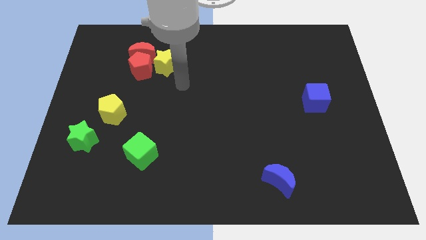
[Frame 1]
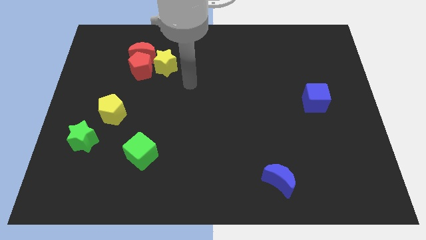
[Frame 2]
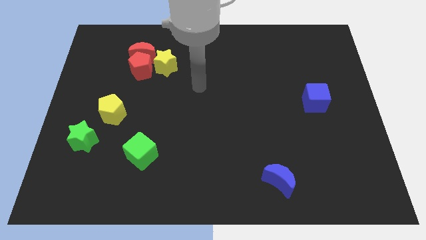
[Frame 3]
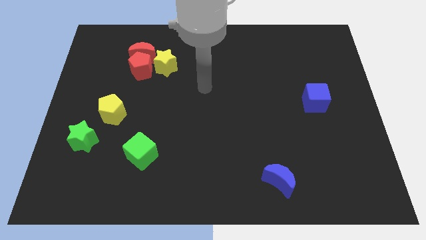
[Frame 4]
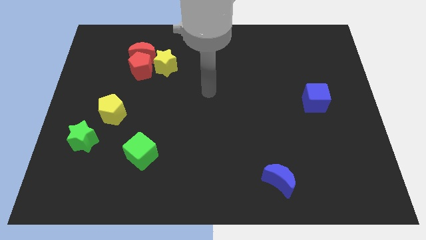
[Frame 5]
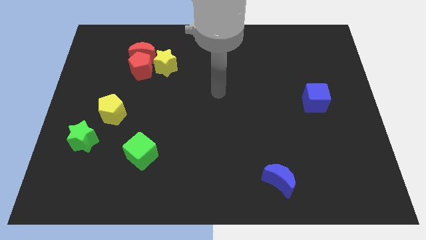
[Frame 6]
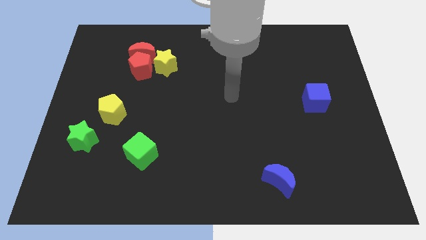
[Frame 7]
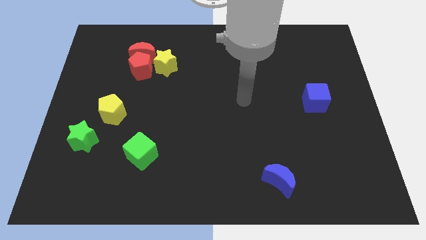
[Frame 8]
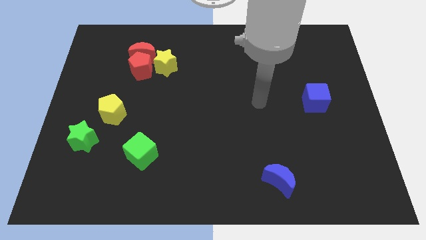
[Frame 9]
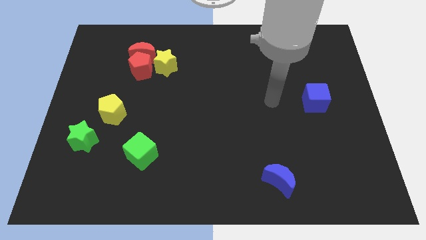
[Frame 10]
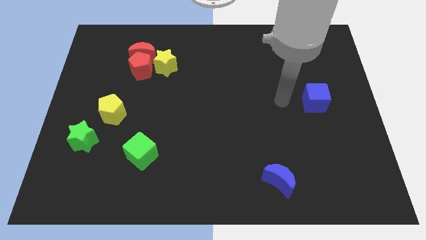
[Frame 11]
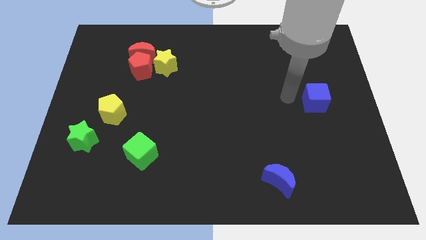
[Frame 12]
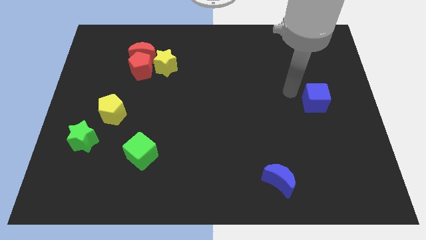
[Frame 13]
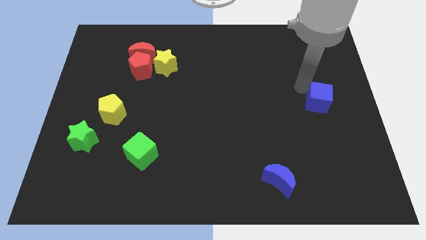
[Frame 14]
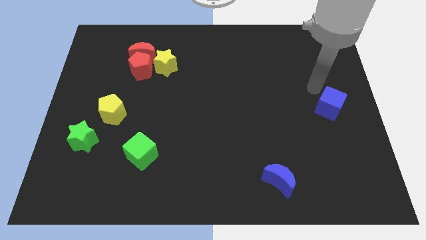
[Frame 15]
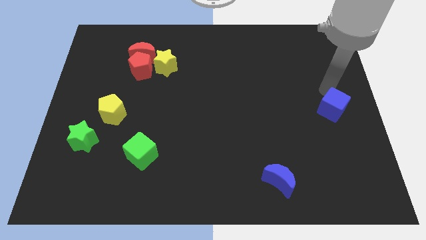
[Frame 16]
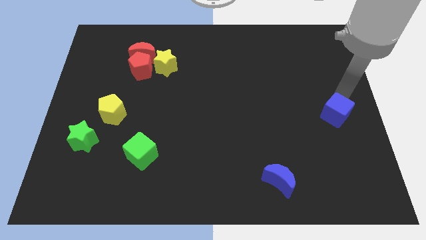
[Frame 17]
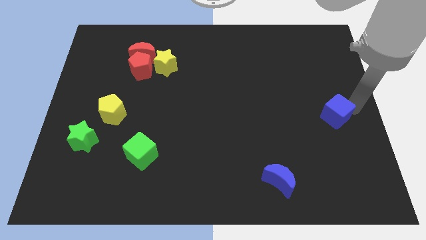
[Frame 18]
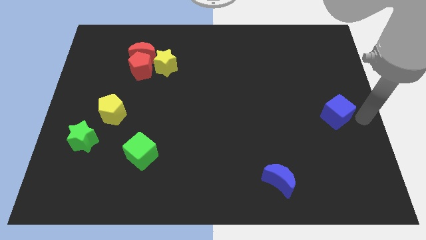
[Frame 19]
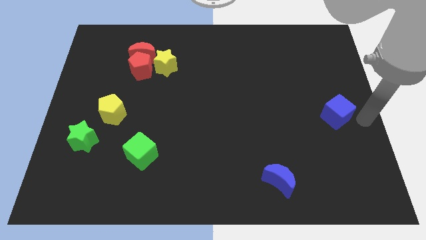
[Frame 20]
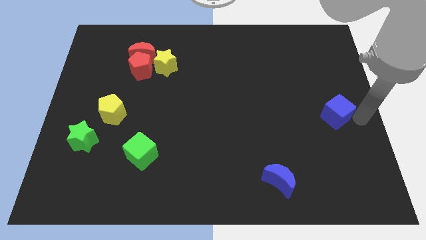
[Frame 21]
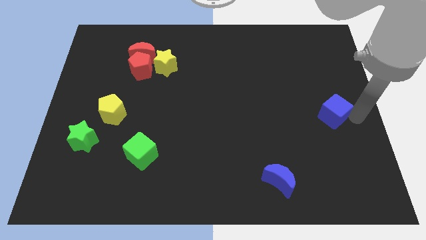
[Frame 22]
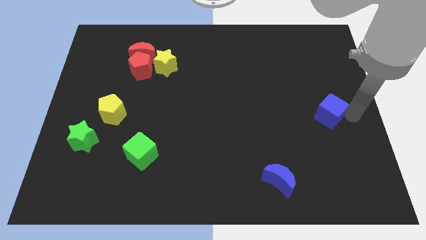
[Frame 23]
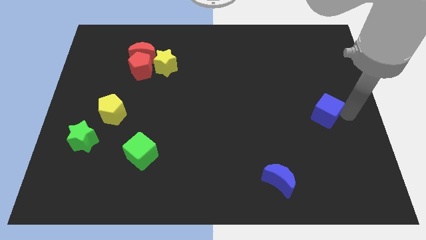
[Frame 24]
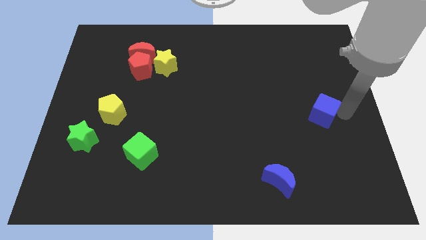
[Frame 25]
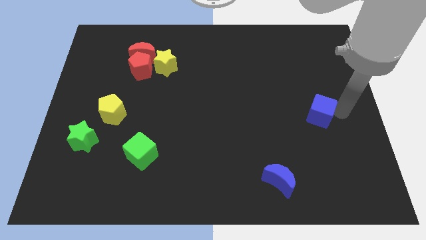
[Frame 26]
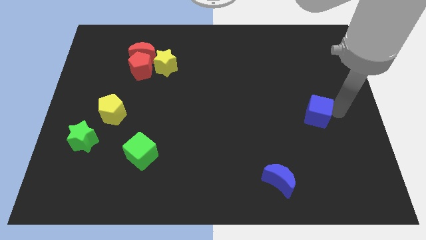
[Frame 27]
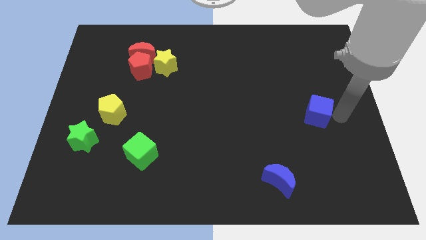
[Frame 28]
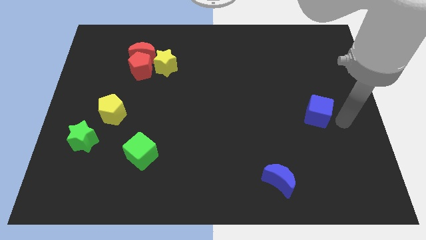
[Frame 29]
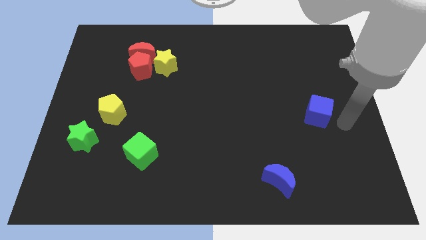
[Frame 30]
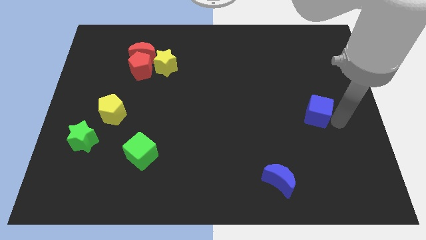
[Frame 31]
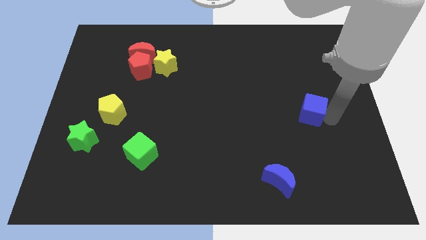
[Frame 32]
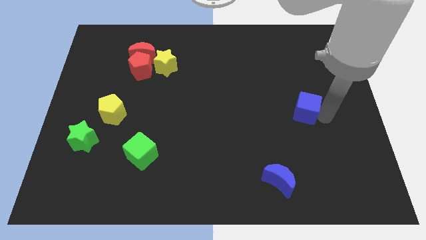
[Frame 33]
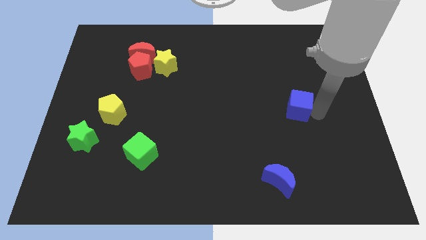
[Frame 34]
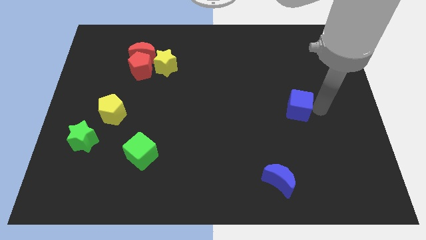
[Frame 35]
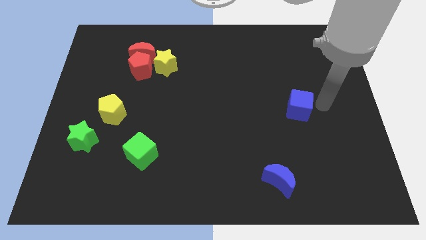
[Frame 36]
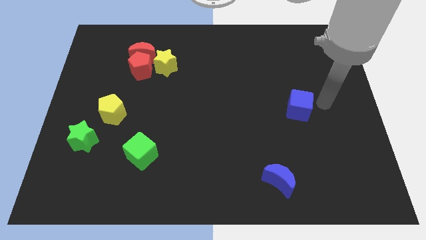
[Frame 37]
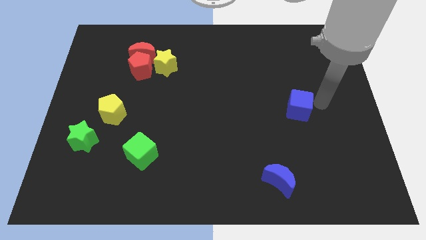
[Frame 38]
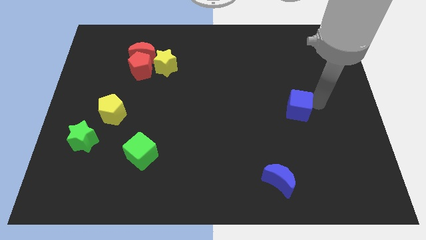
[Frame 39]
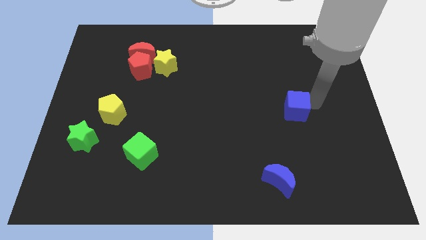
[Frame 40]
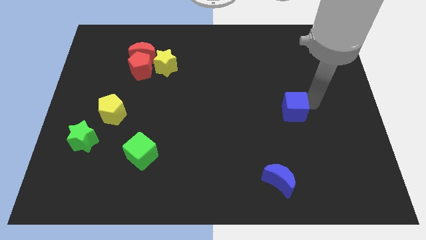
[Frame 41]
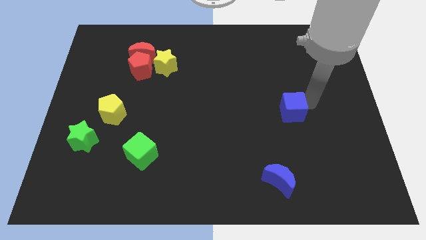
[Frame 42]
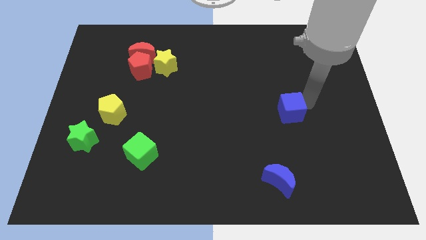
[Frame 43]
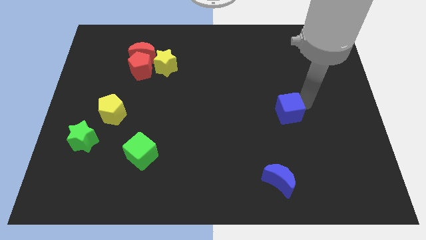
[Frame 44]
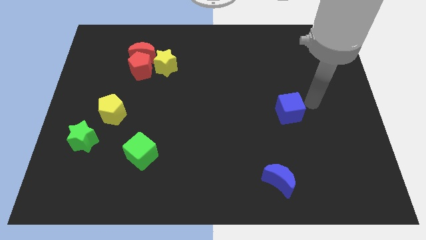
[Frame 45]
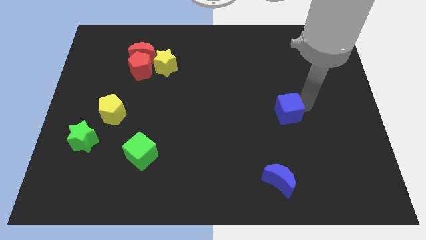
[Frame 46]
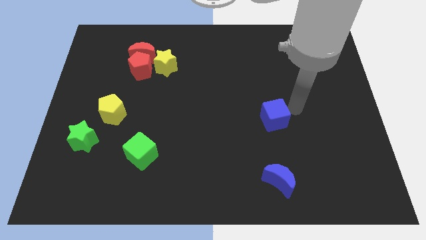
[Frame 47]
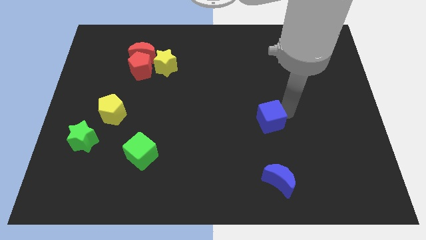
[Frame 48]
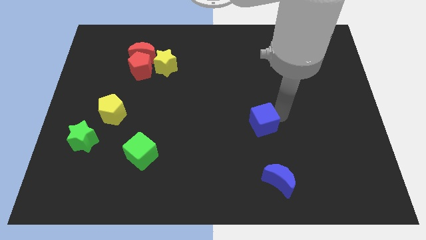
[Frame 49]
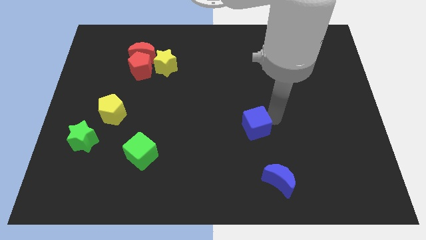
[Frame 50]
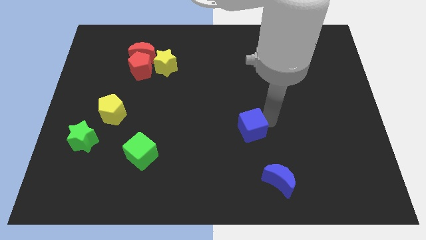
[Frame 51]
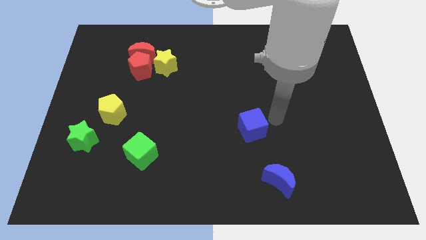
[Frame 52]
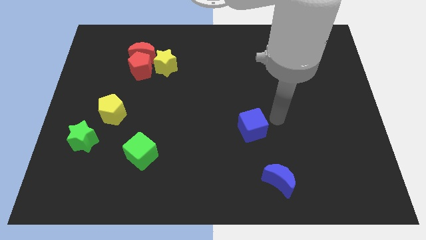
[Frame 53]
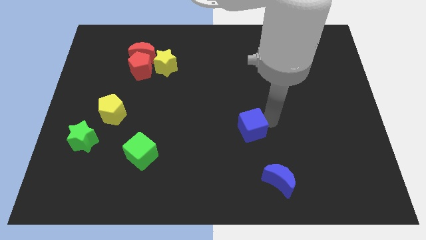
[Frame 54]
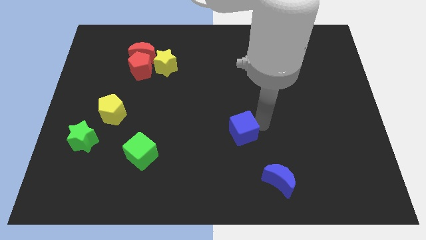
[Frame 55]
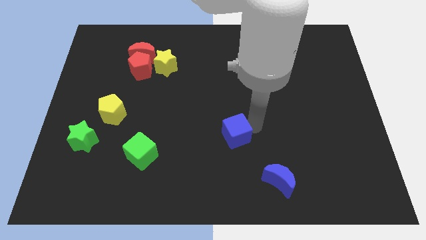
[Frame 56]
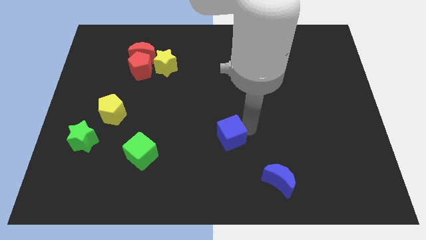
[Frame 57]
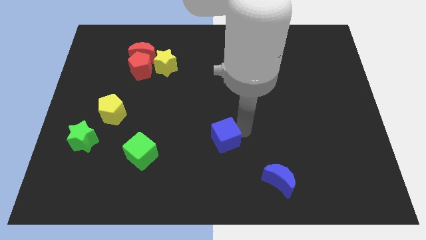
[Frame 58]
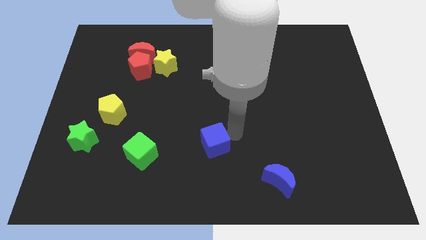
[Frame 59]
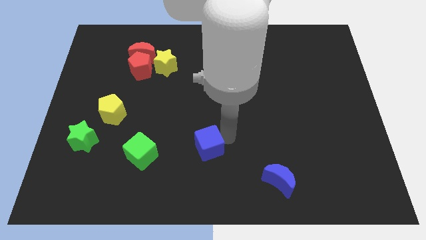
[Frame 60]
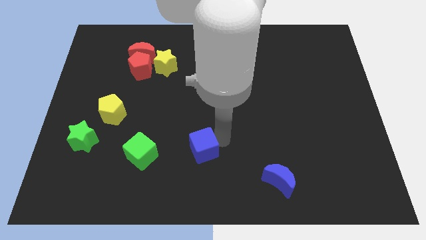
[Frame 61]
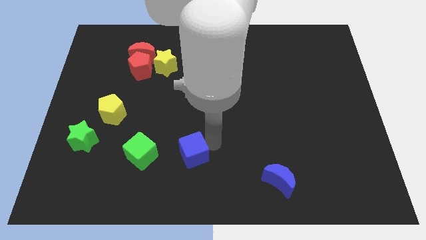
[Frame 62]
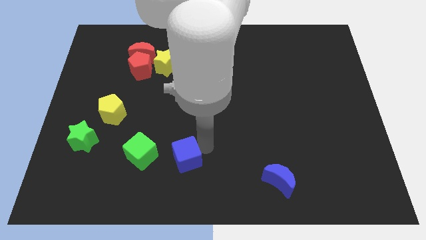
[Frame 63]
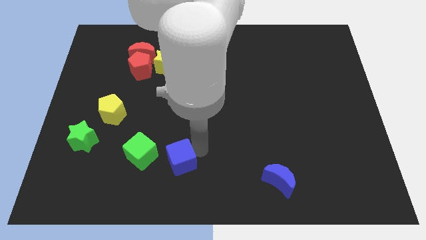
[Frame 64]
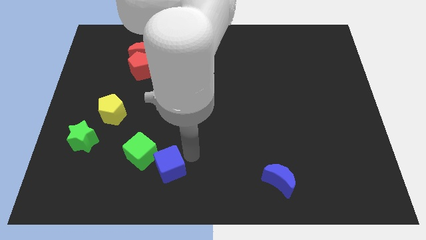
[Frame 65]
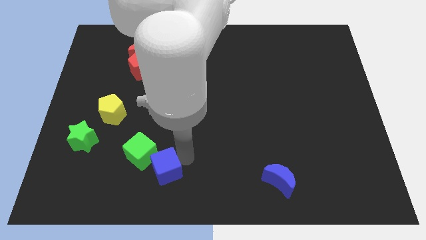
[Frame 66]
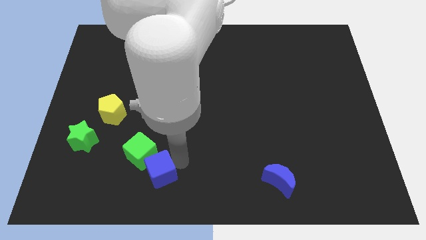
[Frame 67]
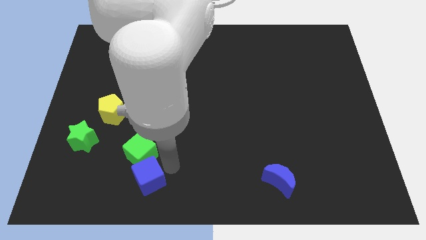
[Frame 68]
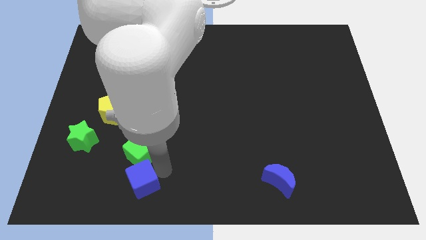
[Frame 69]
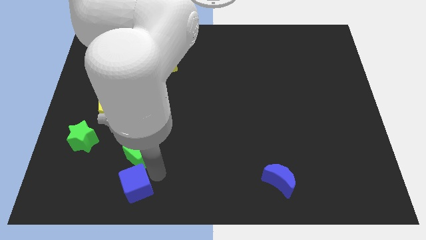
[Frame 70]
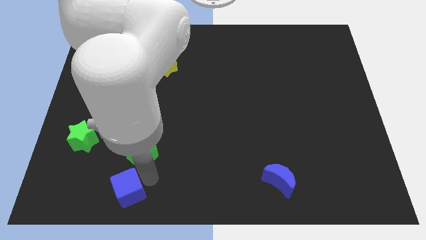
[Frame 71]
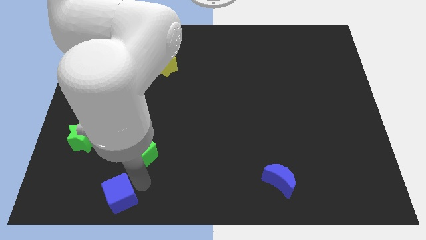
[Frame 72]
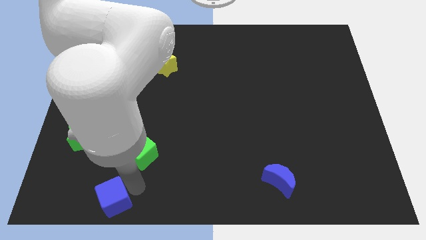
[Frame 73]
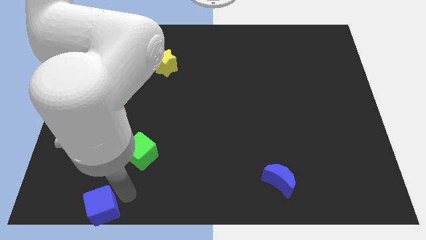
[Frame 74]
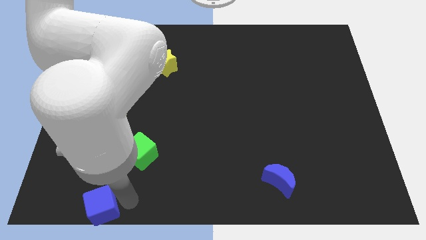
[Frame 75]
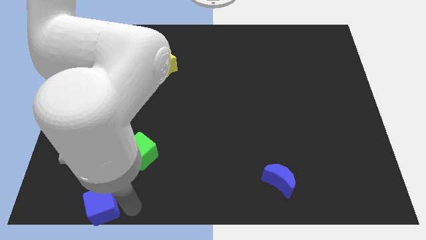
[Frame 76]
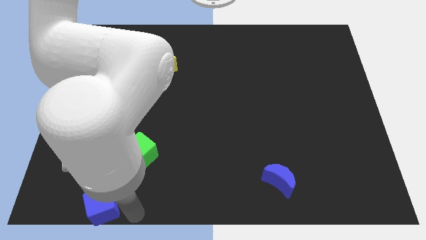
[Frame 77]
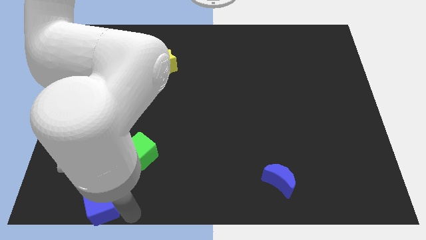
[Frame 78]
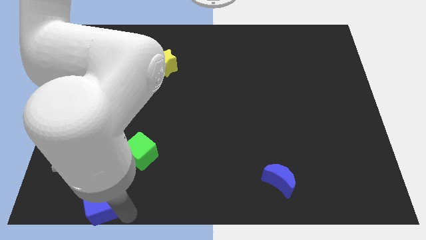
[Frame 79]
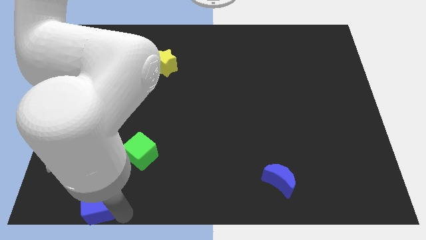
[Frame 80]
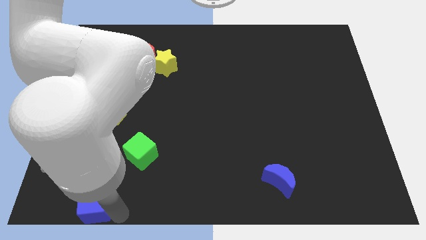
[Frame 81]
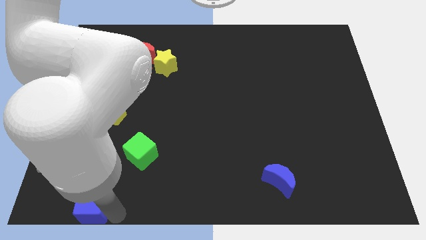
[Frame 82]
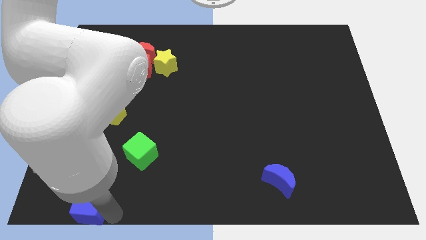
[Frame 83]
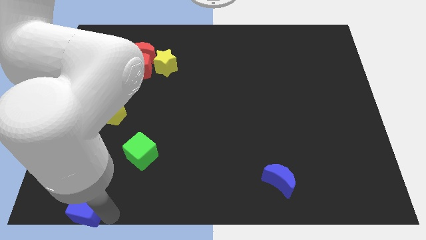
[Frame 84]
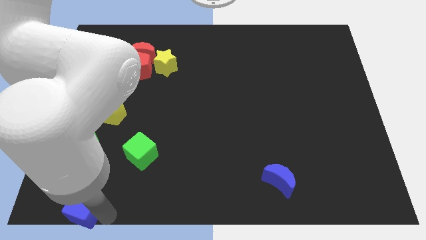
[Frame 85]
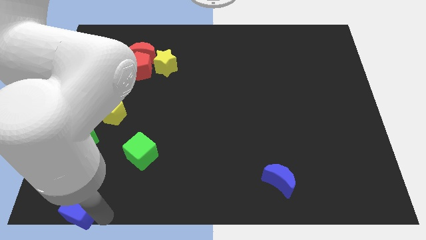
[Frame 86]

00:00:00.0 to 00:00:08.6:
move the blue cube to the bottom left
